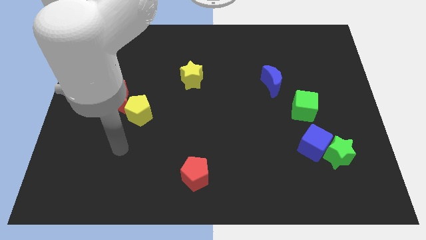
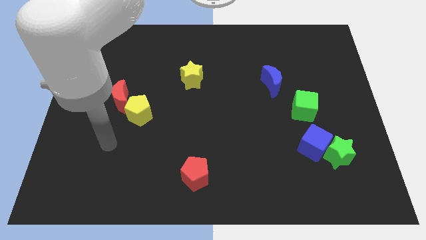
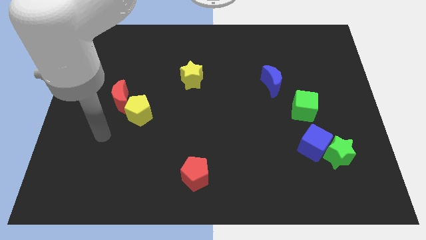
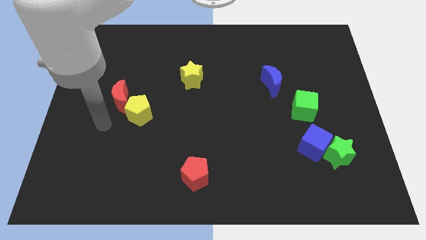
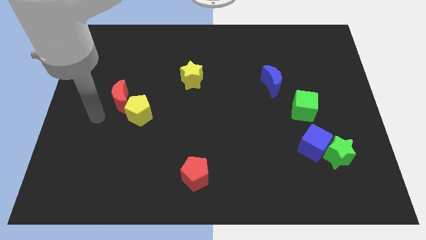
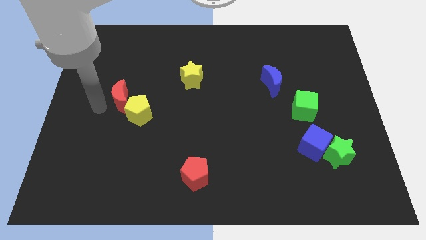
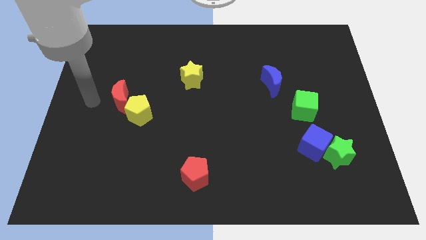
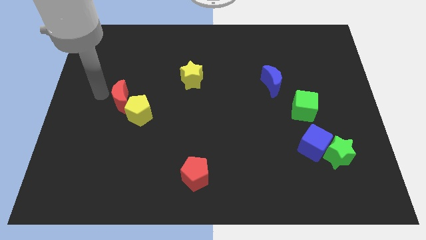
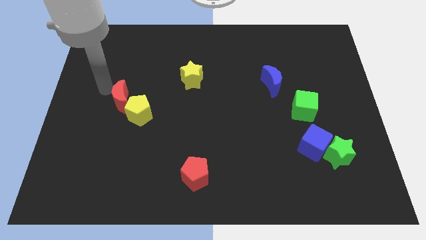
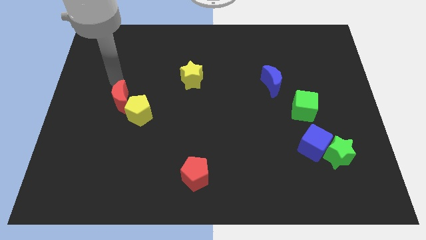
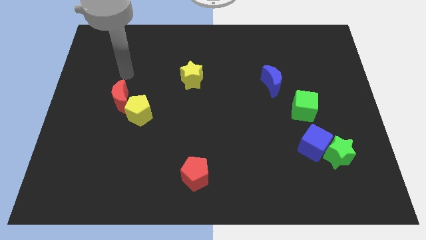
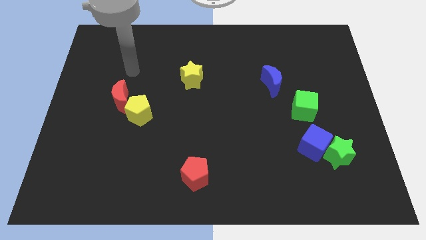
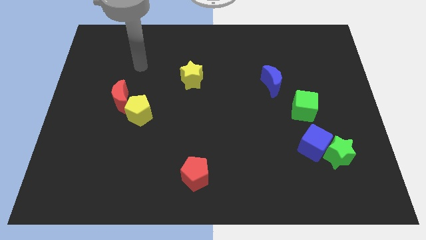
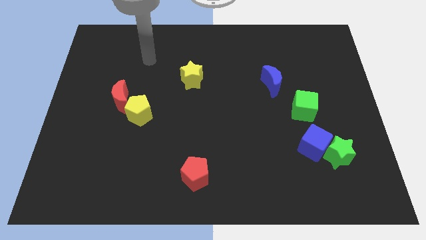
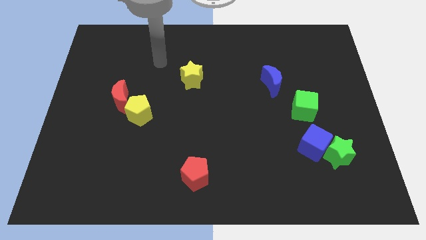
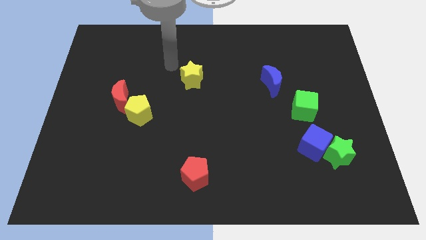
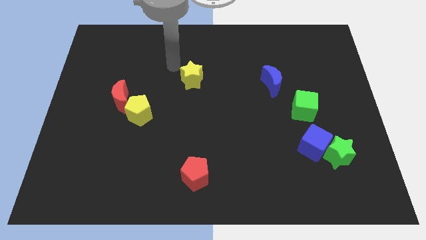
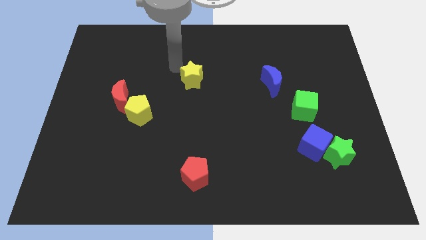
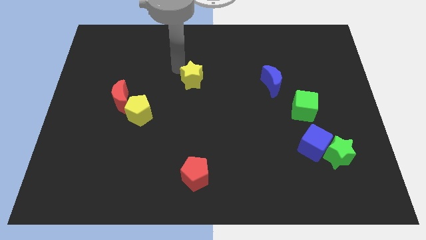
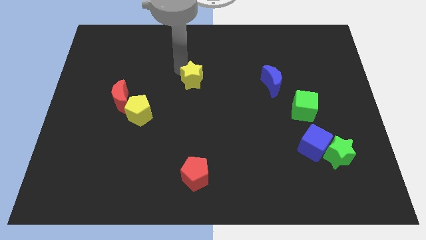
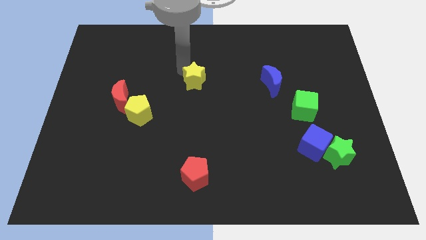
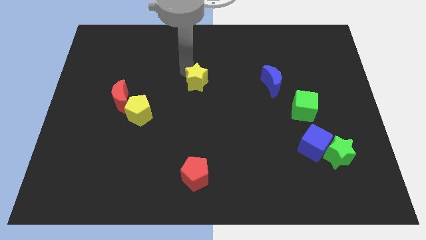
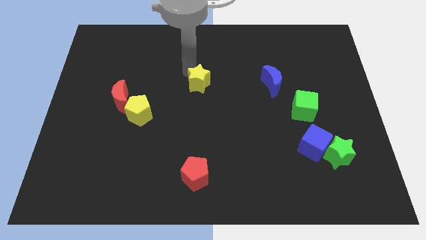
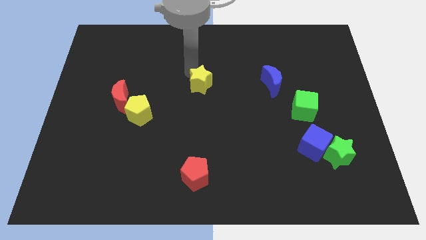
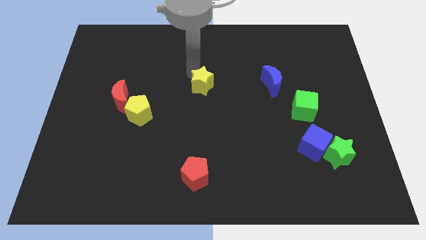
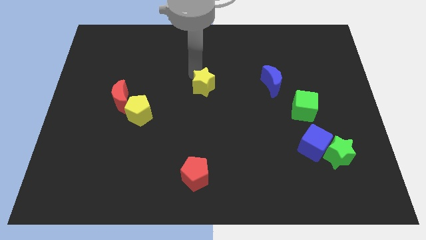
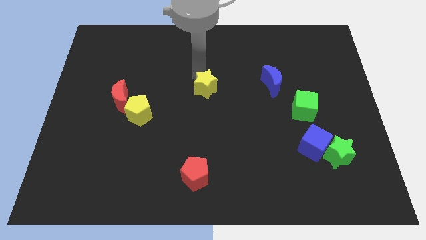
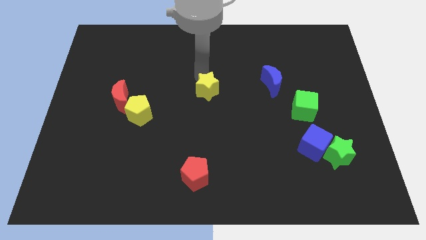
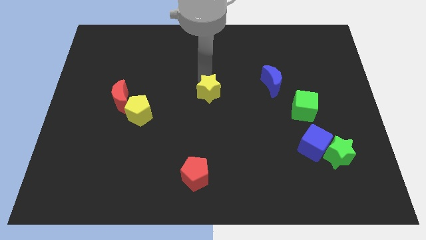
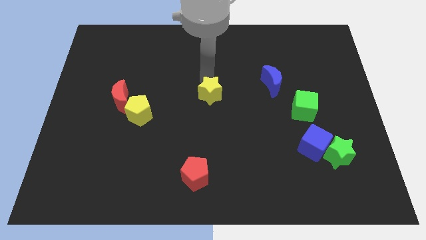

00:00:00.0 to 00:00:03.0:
slightly move the yellow star downwards and then to the right

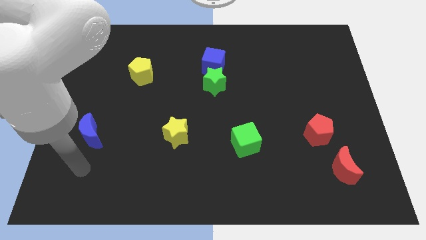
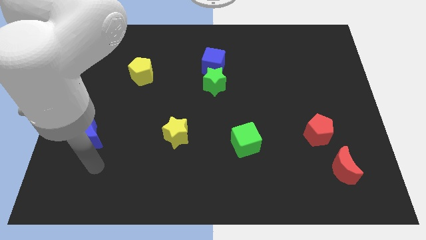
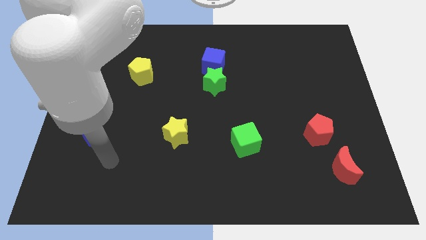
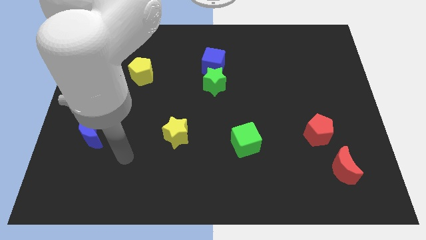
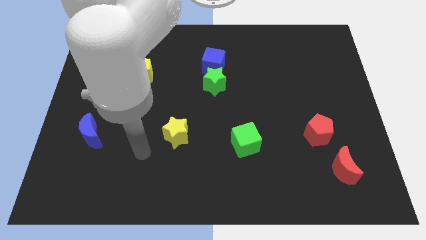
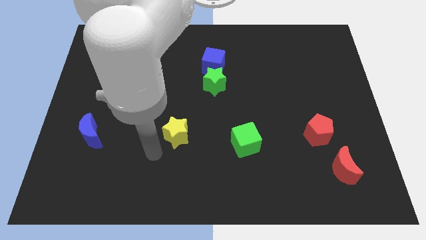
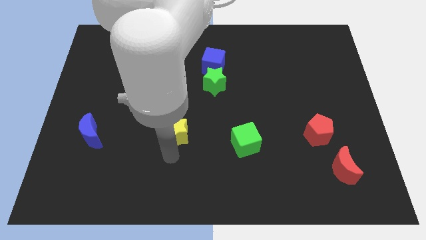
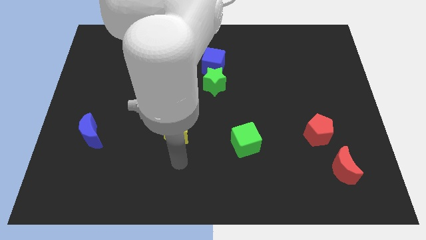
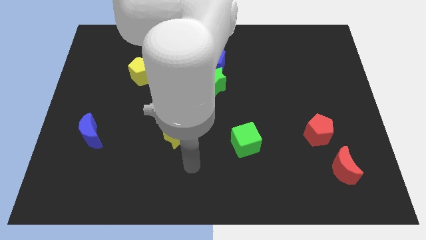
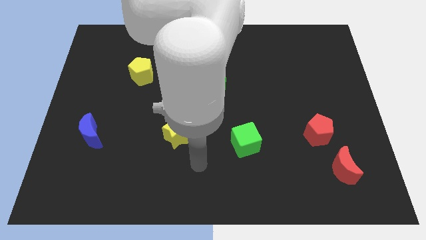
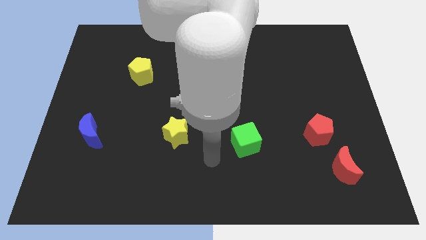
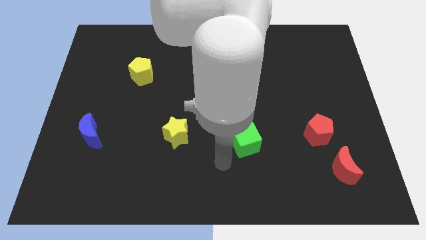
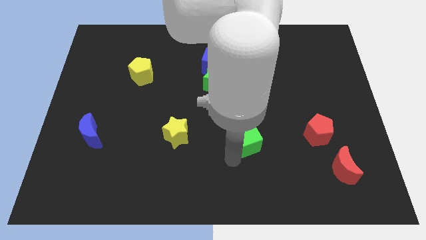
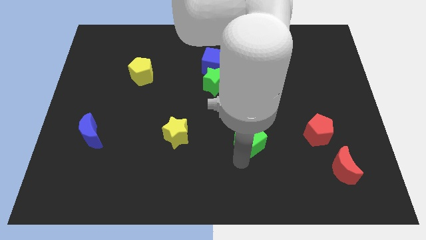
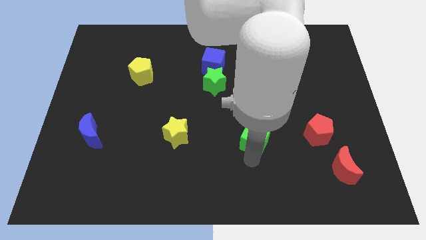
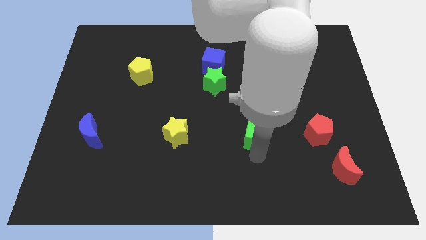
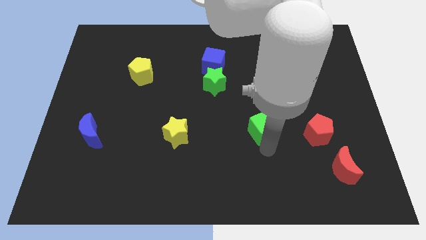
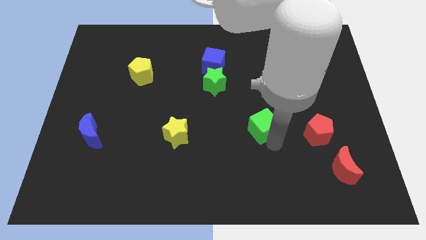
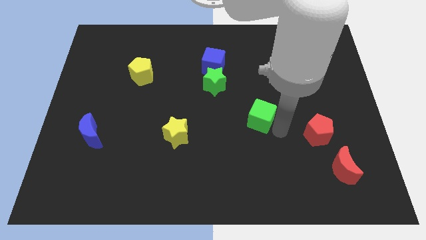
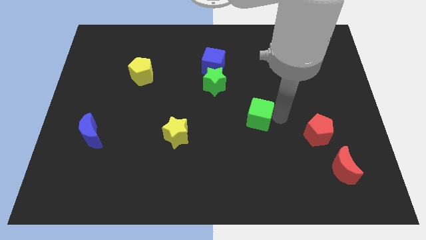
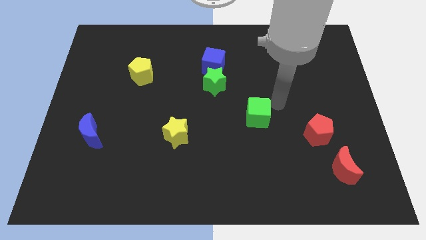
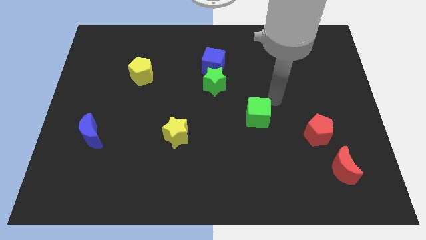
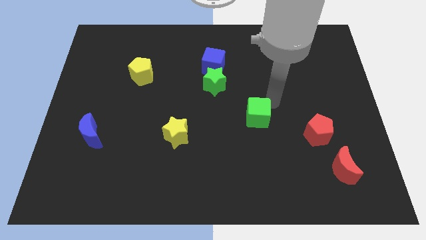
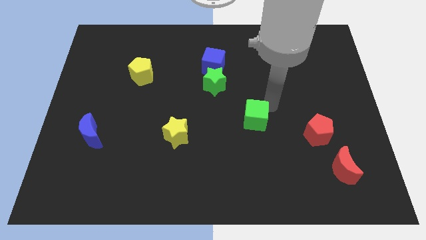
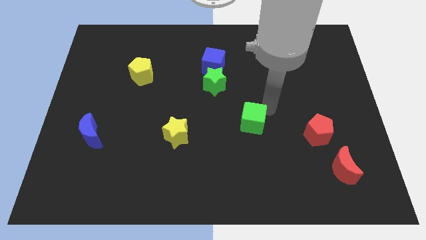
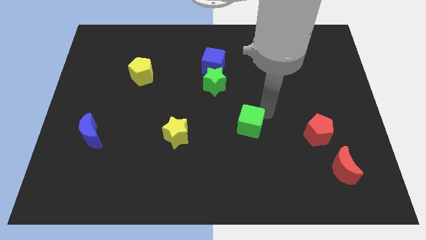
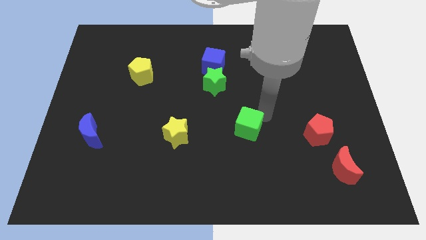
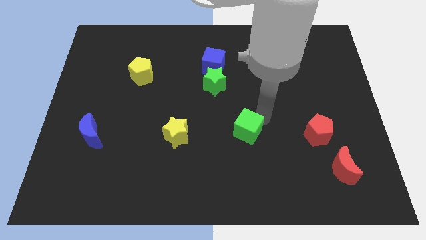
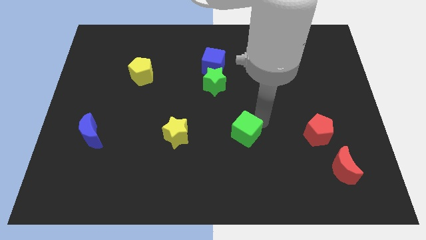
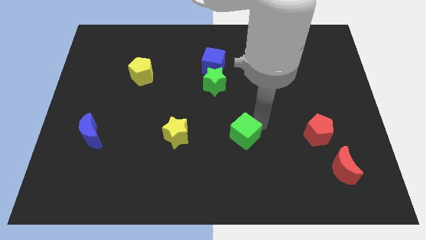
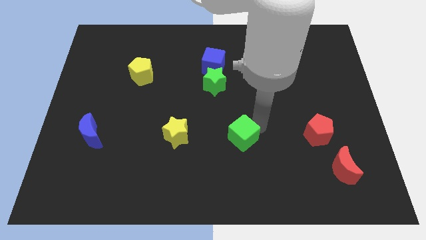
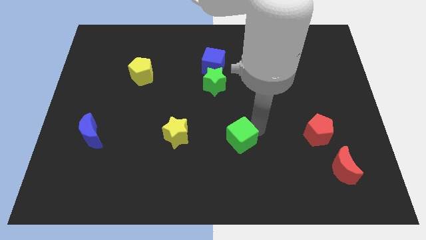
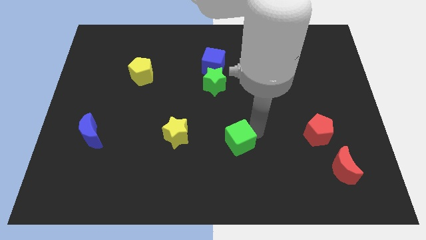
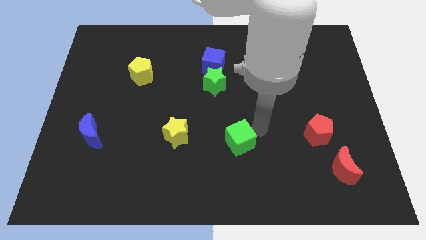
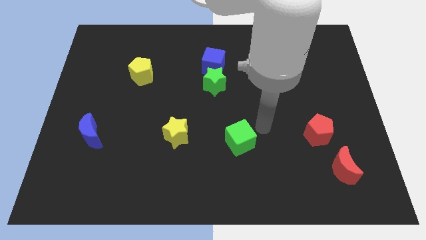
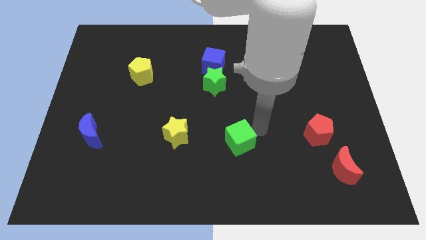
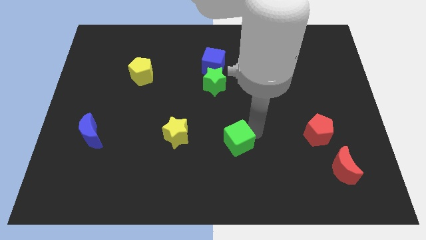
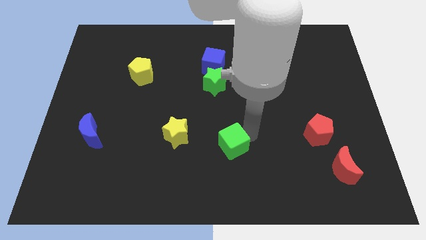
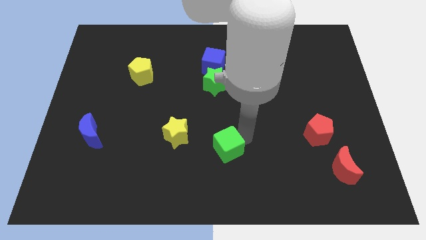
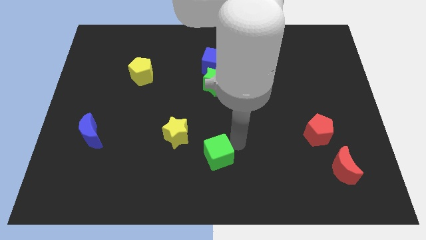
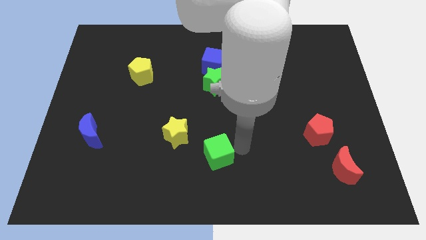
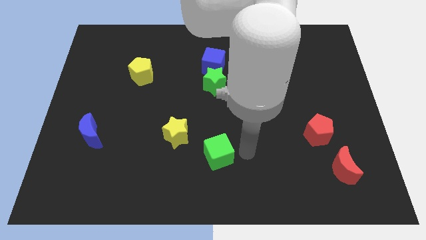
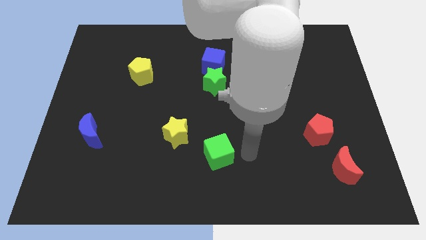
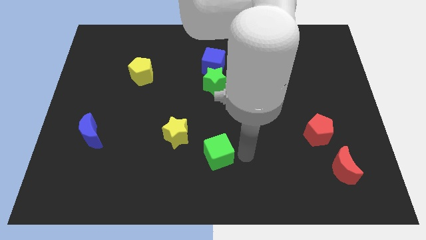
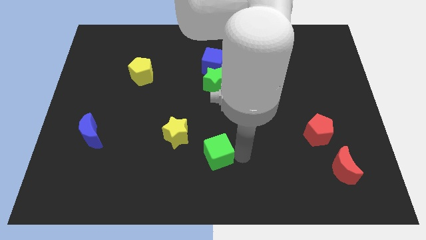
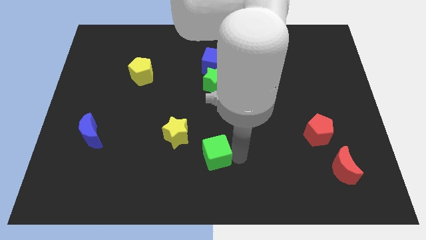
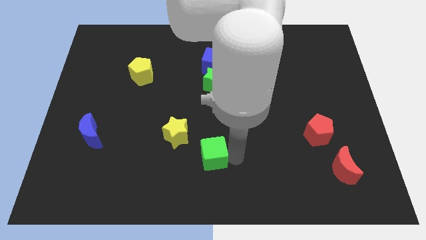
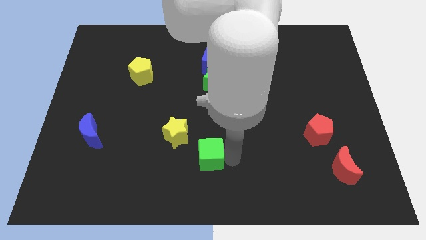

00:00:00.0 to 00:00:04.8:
push the green cube a little bit to the left

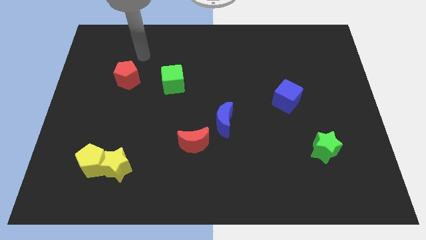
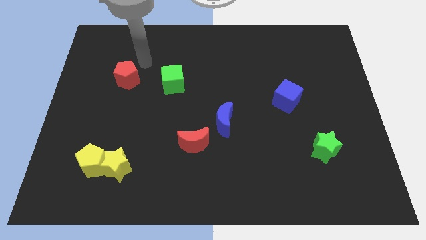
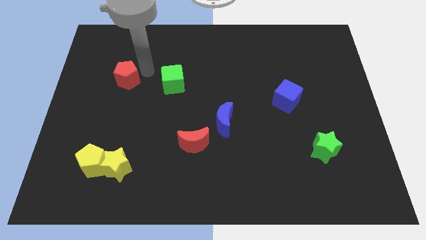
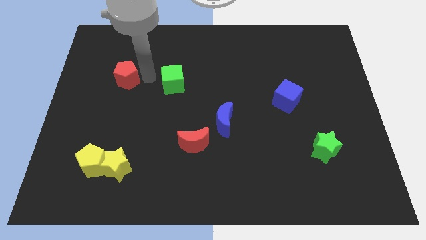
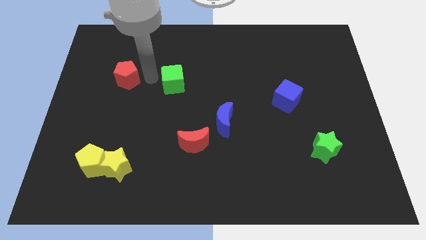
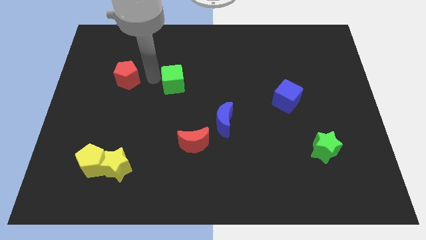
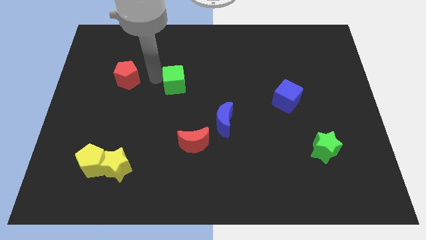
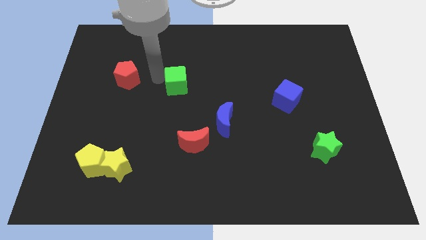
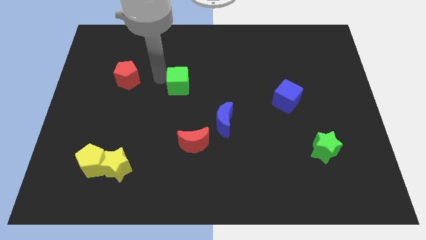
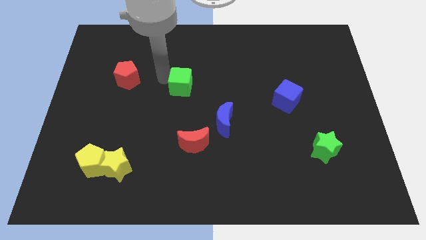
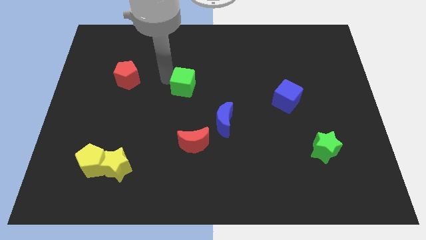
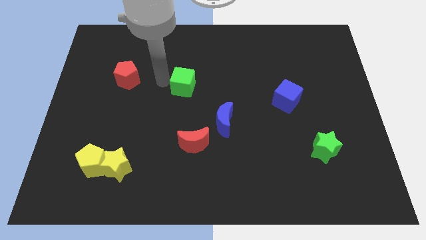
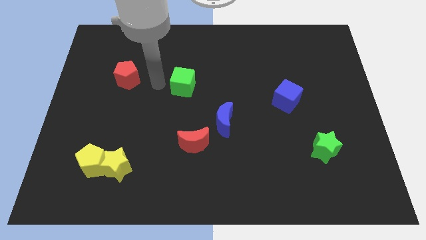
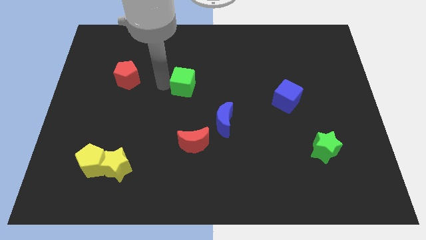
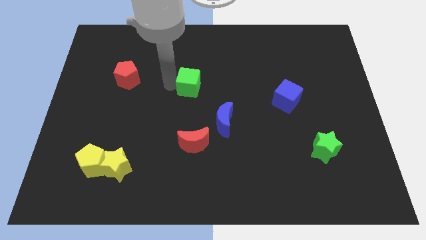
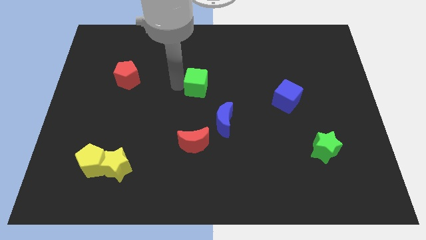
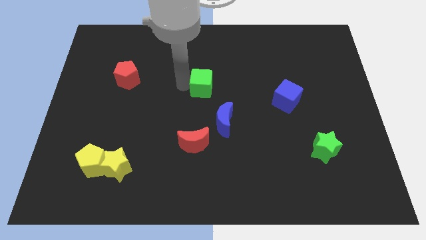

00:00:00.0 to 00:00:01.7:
slide the green cube right somewhat
